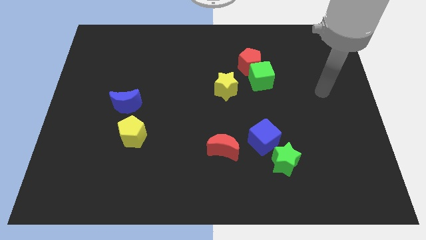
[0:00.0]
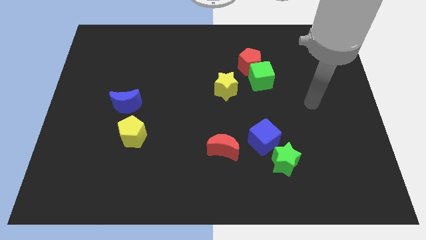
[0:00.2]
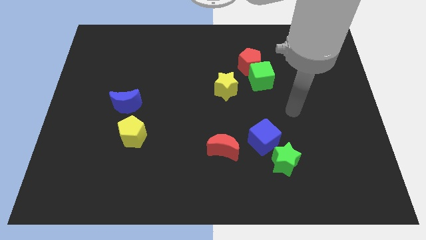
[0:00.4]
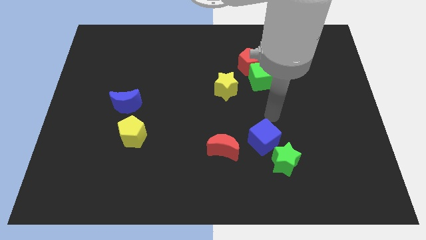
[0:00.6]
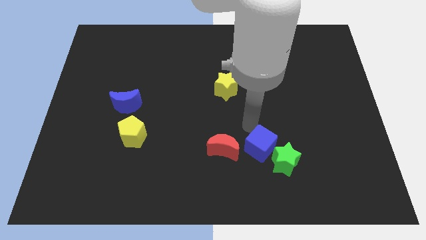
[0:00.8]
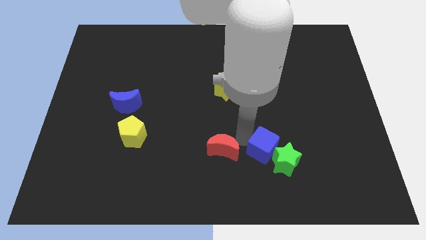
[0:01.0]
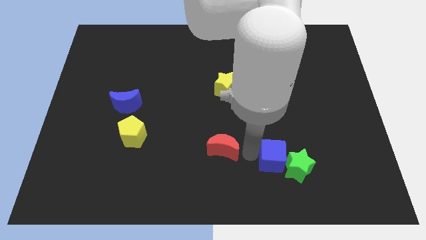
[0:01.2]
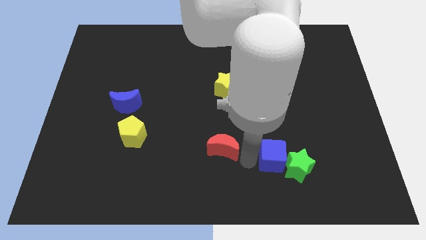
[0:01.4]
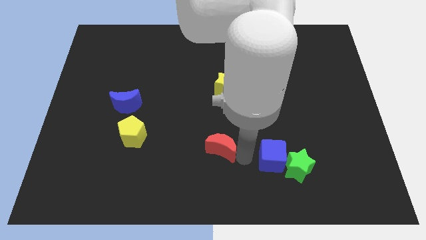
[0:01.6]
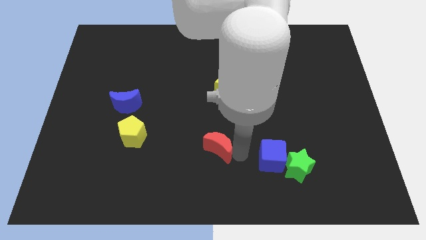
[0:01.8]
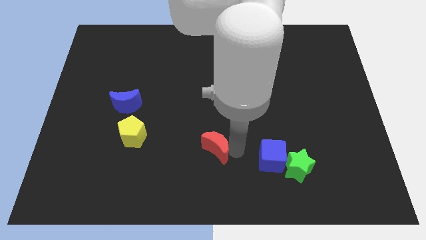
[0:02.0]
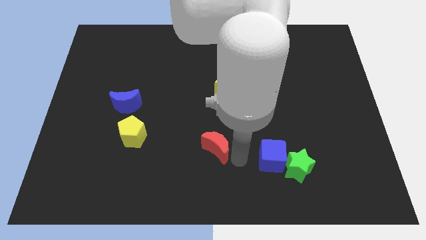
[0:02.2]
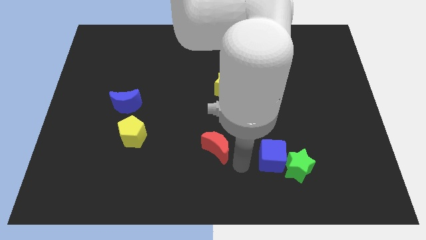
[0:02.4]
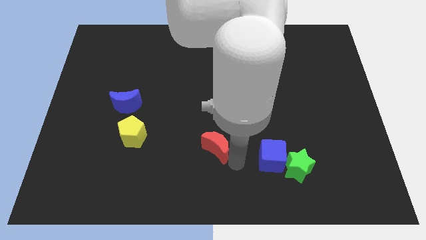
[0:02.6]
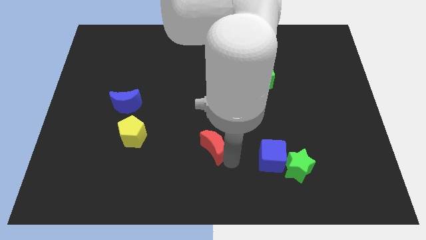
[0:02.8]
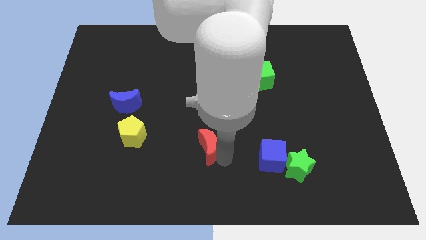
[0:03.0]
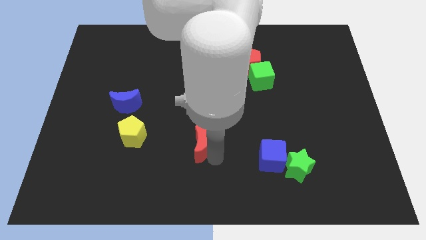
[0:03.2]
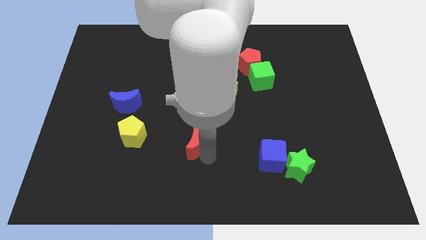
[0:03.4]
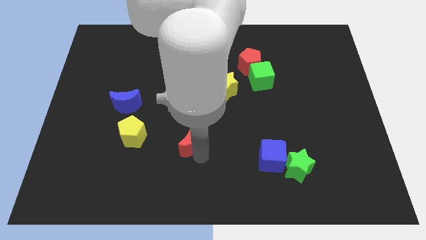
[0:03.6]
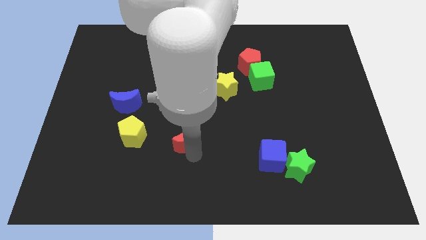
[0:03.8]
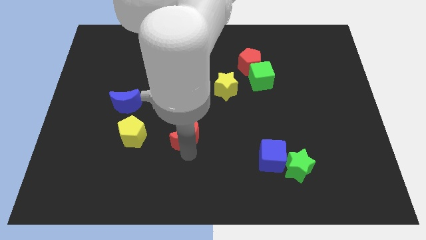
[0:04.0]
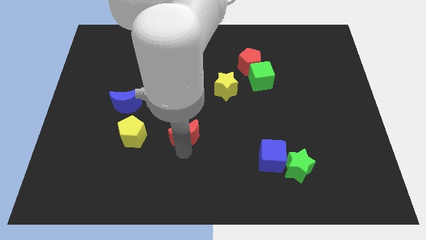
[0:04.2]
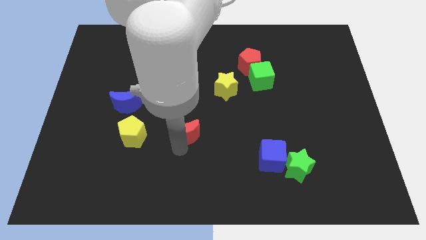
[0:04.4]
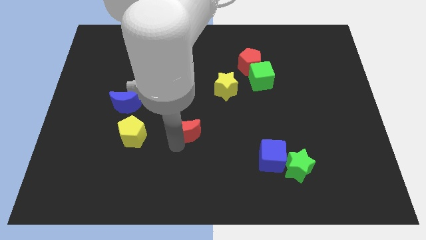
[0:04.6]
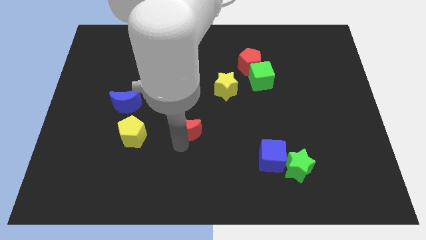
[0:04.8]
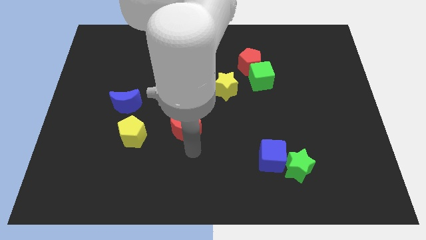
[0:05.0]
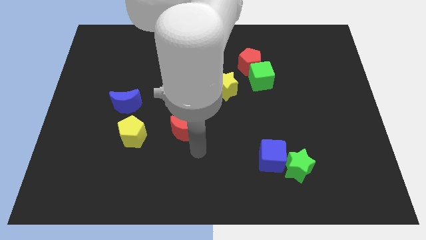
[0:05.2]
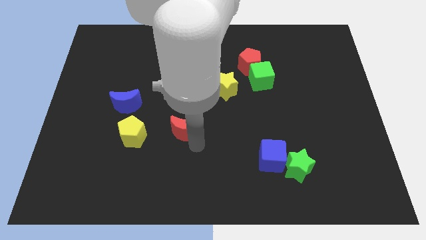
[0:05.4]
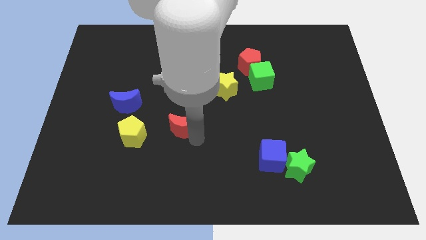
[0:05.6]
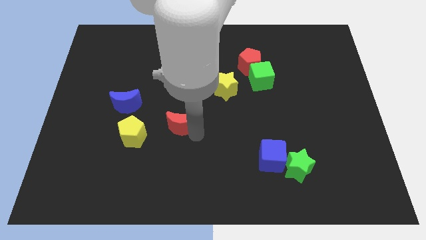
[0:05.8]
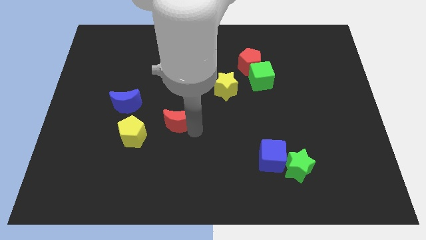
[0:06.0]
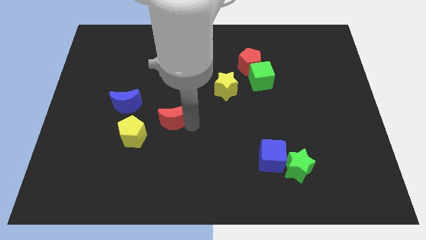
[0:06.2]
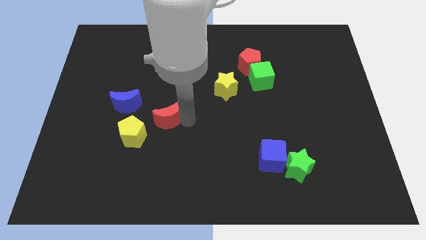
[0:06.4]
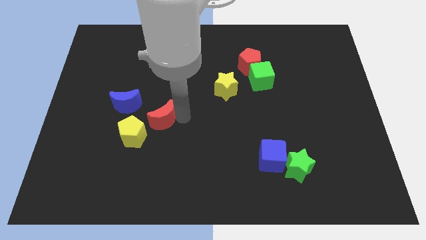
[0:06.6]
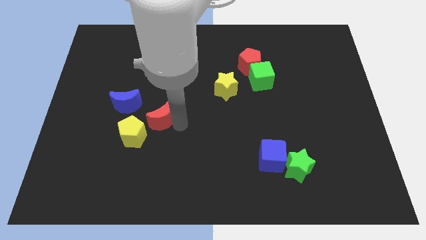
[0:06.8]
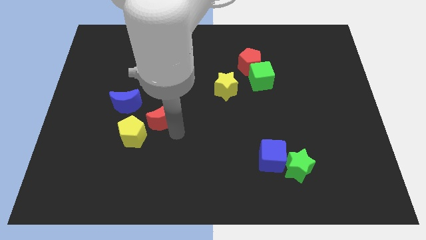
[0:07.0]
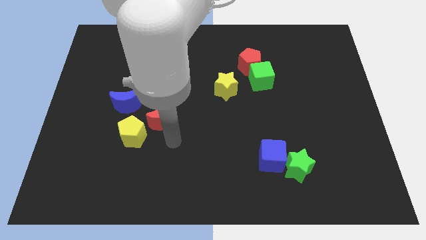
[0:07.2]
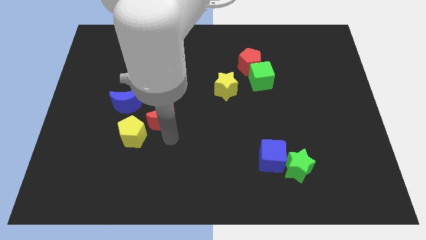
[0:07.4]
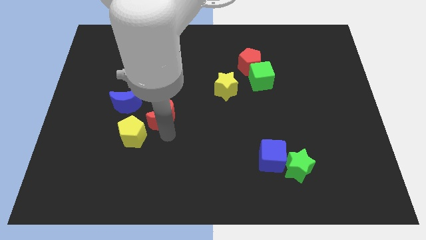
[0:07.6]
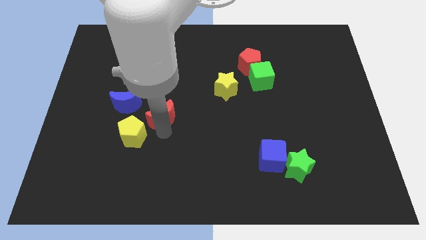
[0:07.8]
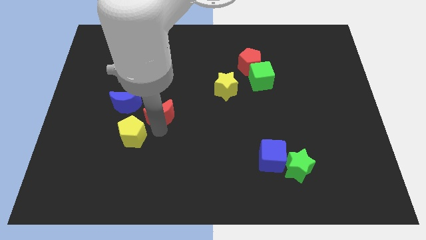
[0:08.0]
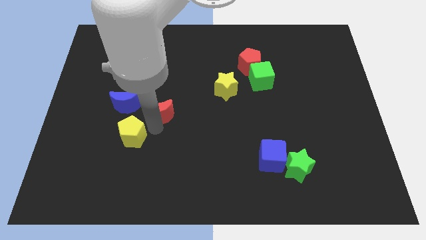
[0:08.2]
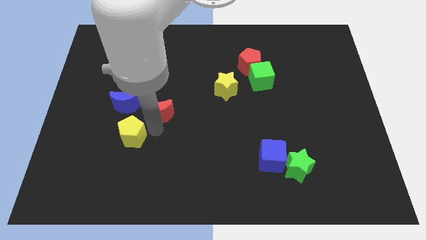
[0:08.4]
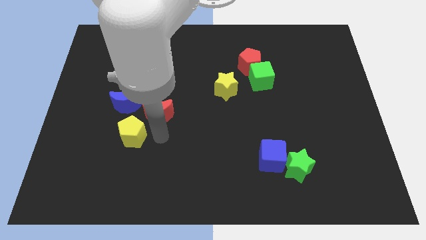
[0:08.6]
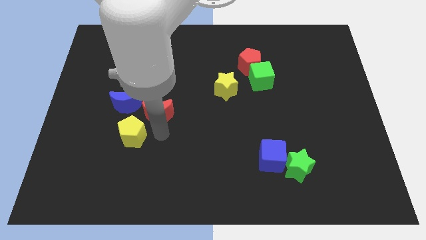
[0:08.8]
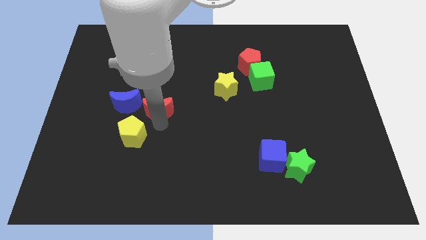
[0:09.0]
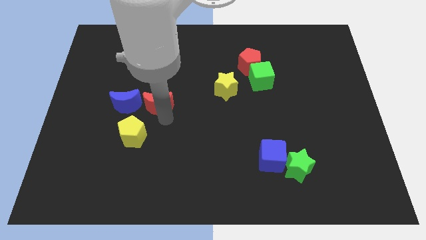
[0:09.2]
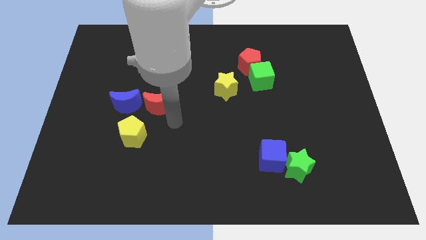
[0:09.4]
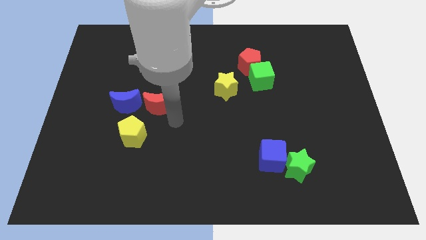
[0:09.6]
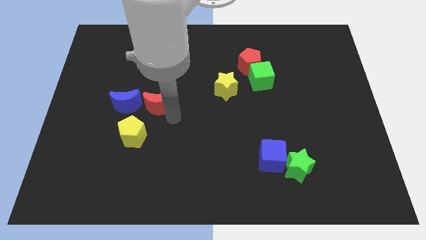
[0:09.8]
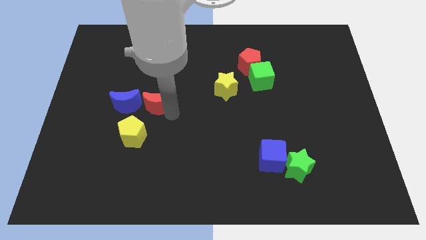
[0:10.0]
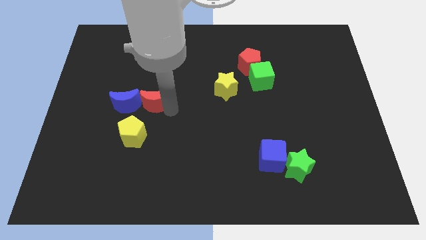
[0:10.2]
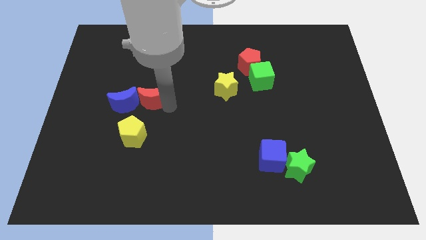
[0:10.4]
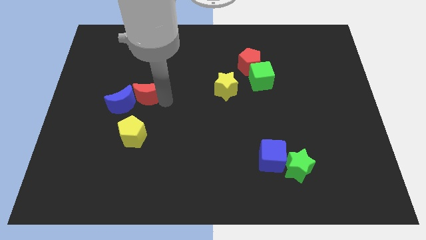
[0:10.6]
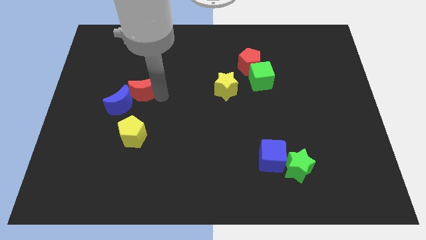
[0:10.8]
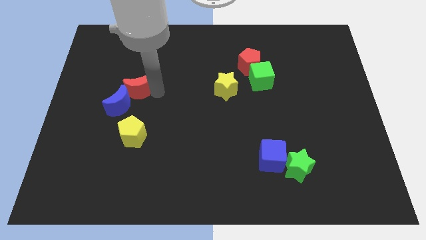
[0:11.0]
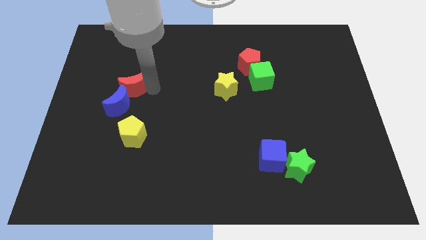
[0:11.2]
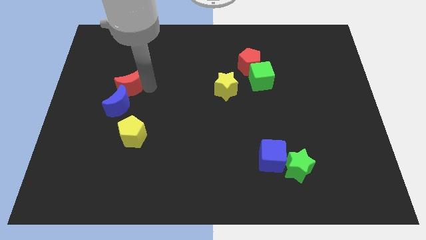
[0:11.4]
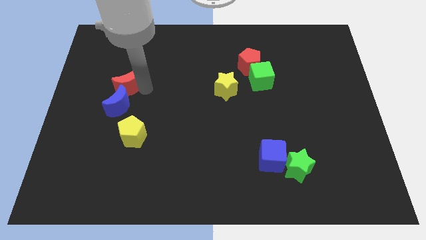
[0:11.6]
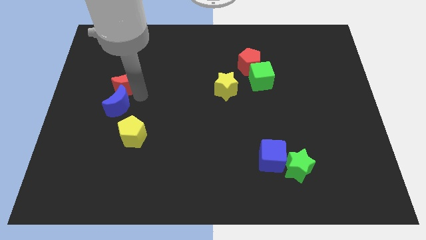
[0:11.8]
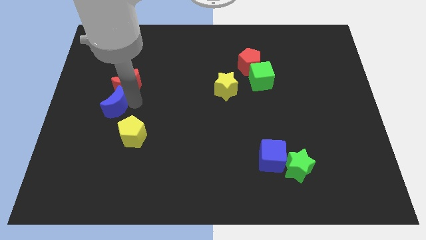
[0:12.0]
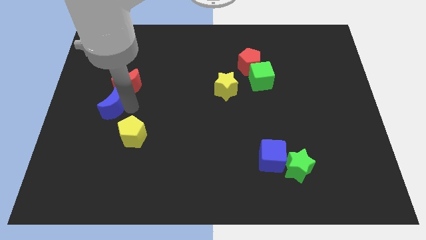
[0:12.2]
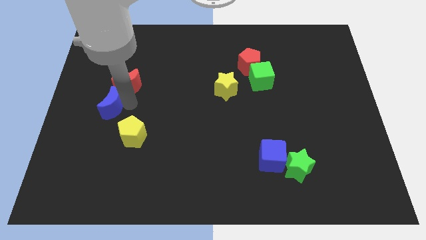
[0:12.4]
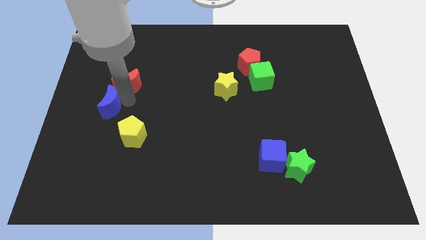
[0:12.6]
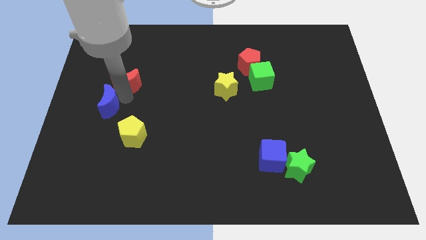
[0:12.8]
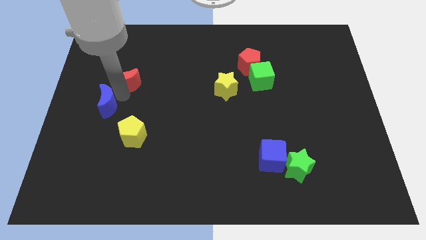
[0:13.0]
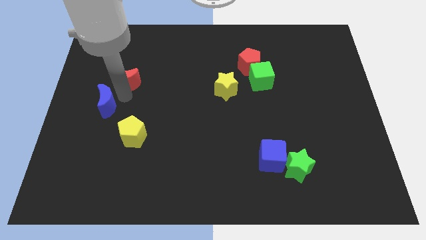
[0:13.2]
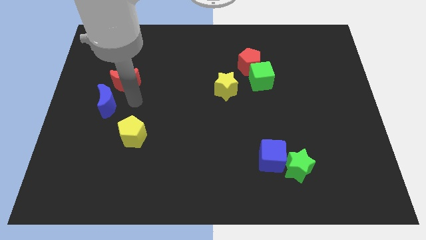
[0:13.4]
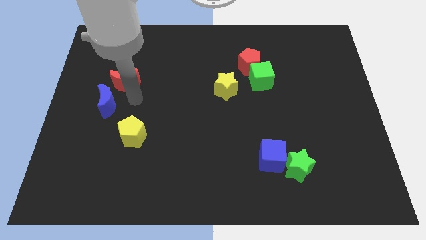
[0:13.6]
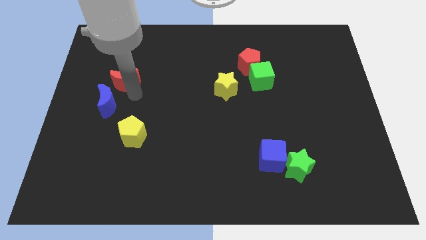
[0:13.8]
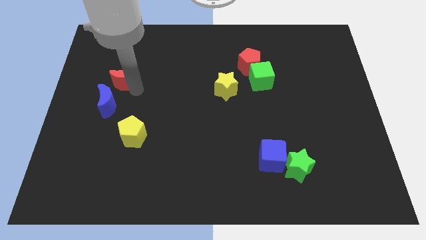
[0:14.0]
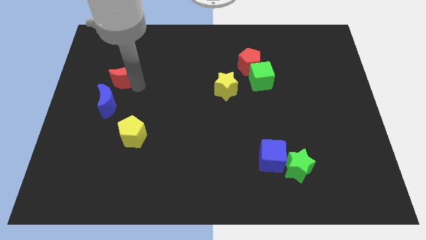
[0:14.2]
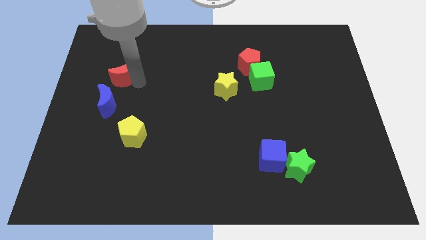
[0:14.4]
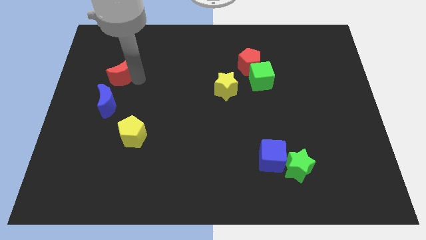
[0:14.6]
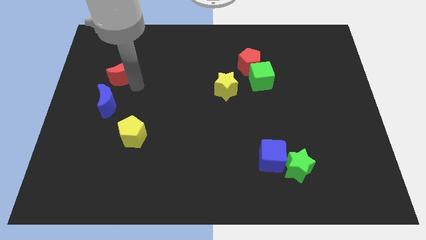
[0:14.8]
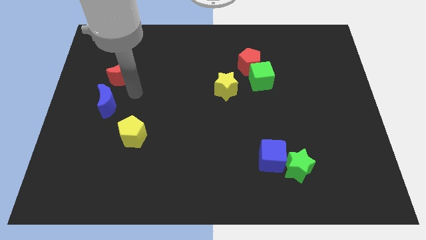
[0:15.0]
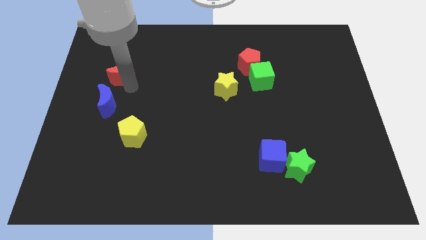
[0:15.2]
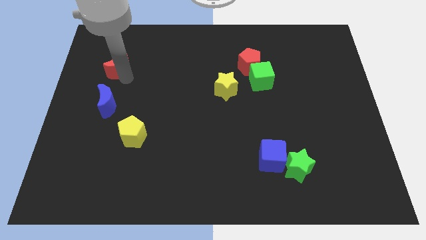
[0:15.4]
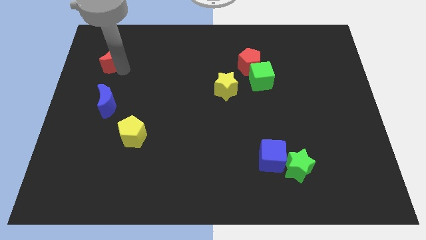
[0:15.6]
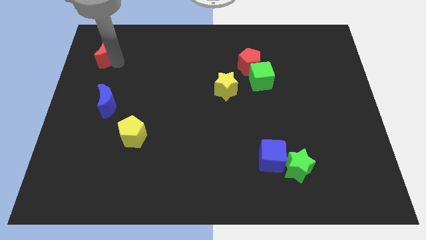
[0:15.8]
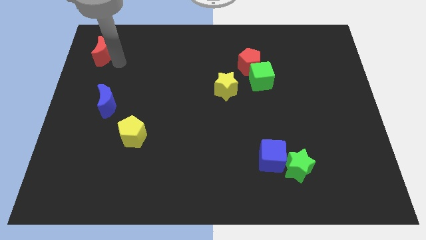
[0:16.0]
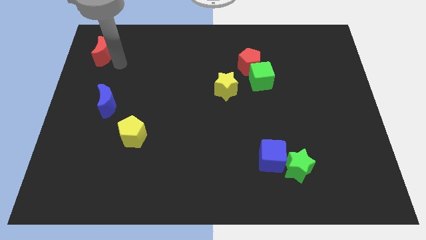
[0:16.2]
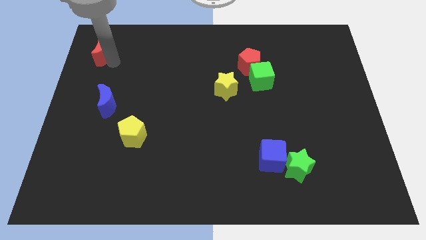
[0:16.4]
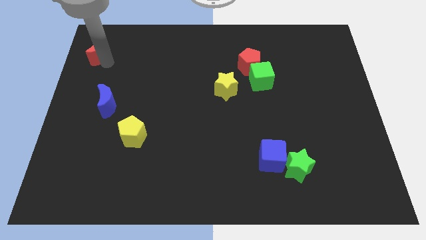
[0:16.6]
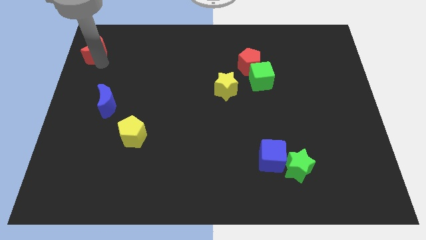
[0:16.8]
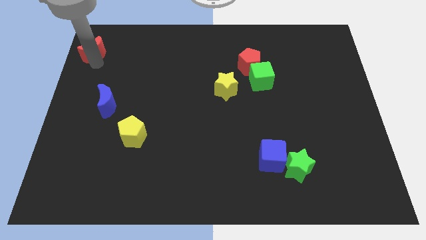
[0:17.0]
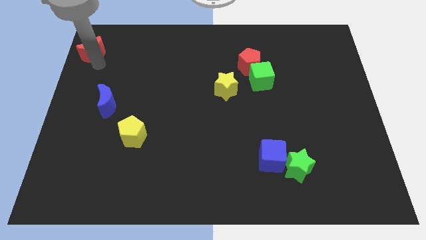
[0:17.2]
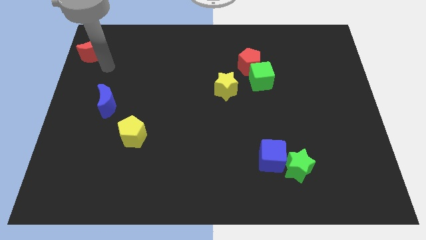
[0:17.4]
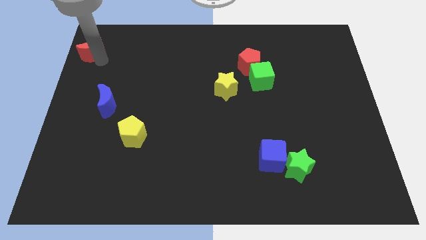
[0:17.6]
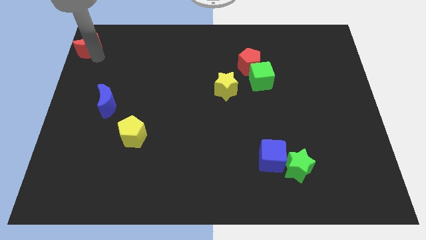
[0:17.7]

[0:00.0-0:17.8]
put the red moon to the top left corner
